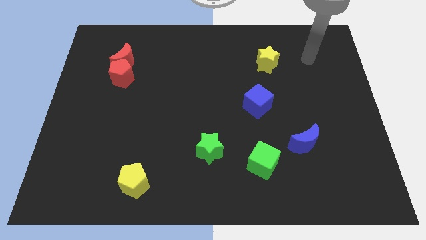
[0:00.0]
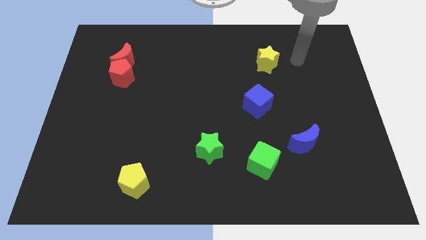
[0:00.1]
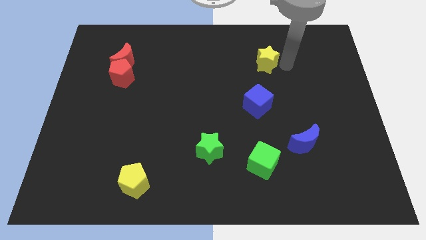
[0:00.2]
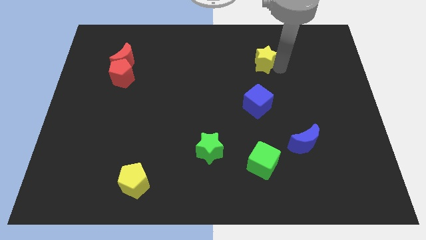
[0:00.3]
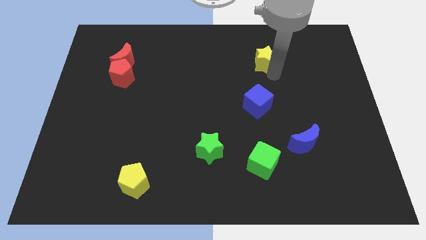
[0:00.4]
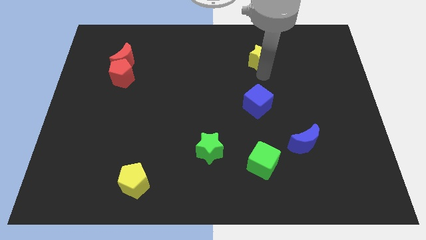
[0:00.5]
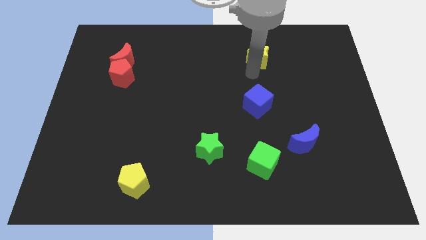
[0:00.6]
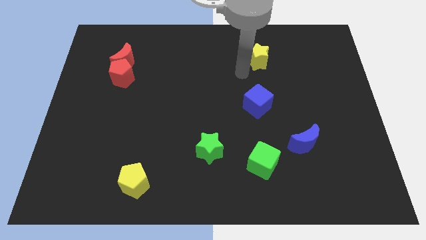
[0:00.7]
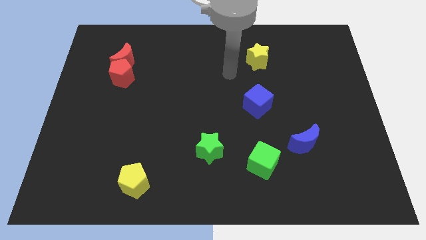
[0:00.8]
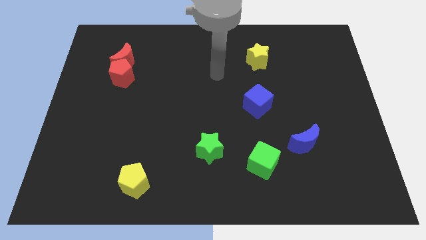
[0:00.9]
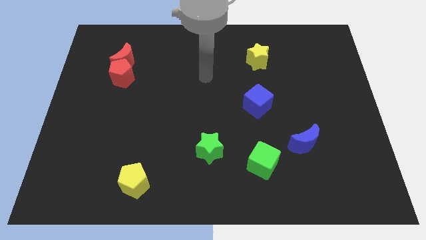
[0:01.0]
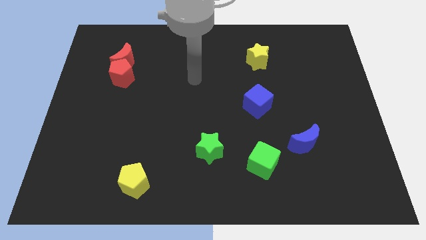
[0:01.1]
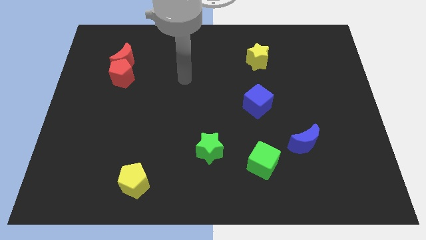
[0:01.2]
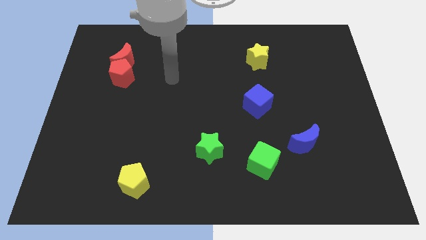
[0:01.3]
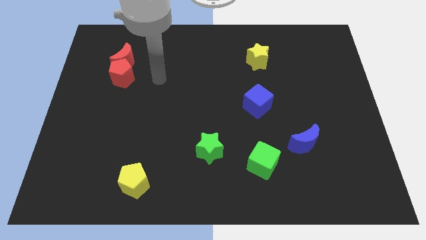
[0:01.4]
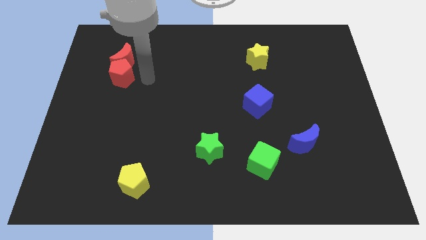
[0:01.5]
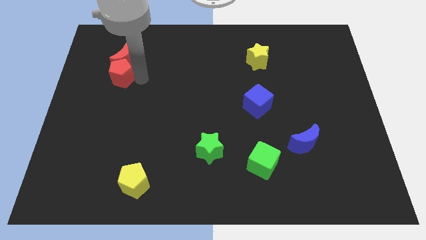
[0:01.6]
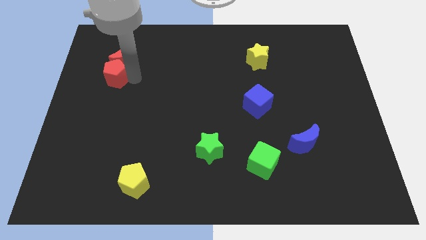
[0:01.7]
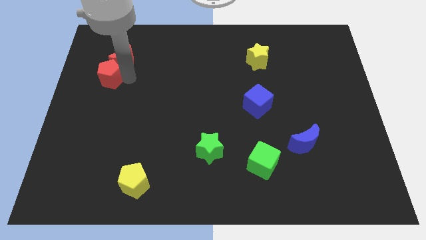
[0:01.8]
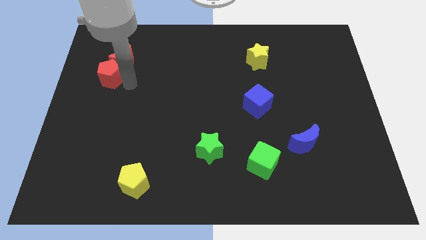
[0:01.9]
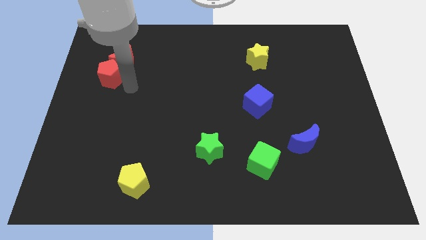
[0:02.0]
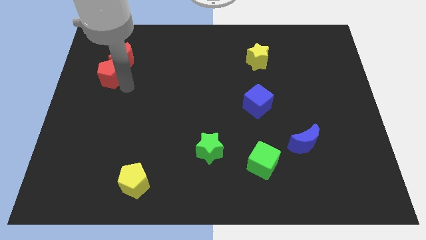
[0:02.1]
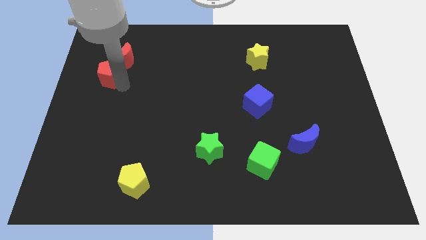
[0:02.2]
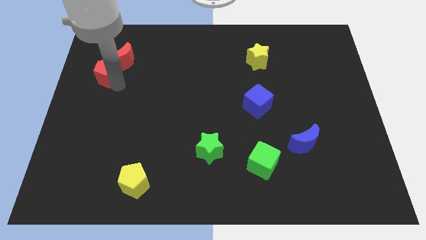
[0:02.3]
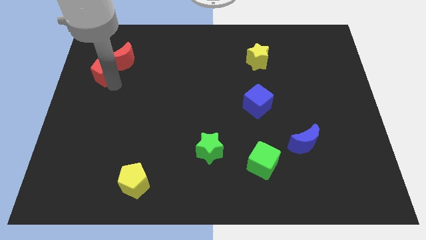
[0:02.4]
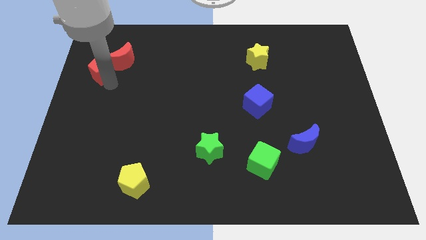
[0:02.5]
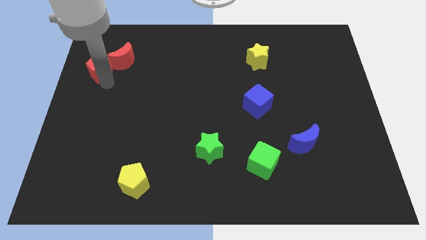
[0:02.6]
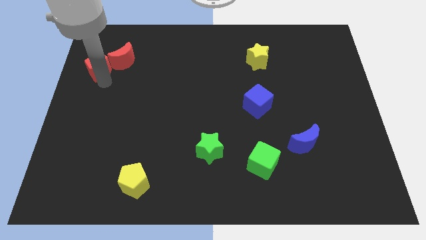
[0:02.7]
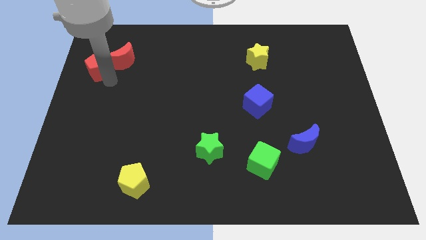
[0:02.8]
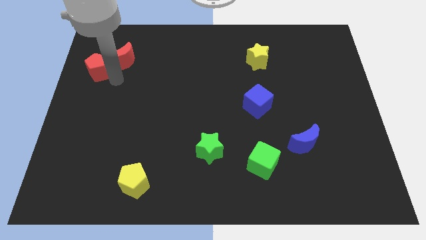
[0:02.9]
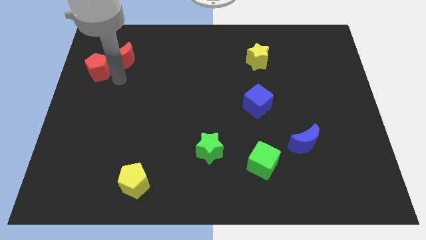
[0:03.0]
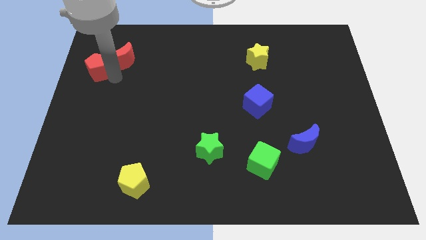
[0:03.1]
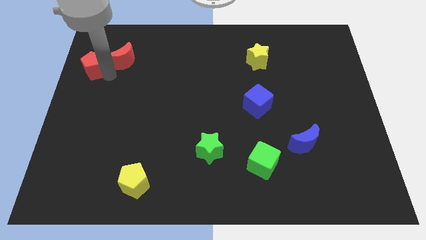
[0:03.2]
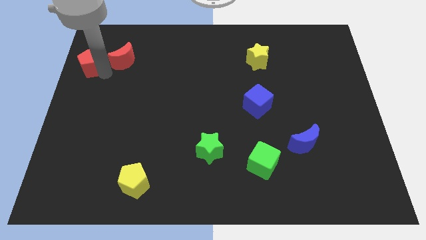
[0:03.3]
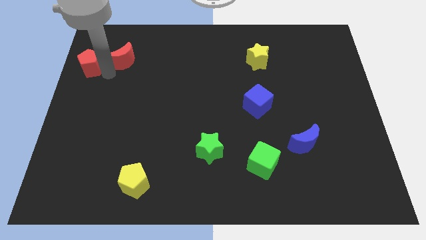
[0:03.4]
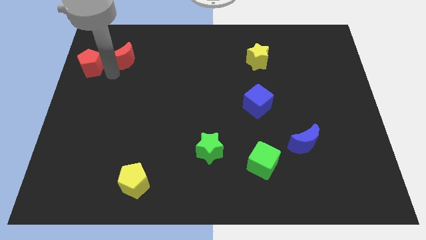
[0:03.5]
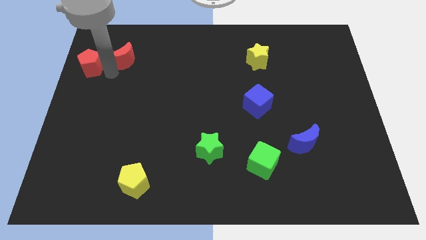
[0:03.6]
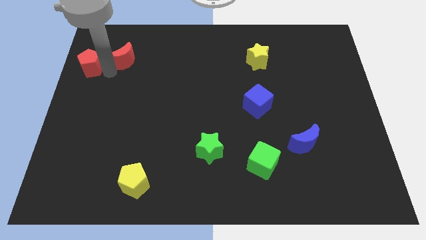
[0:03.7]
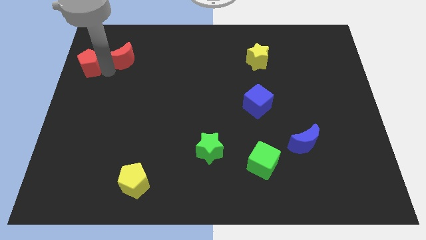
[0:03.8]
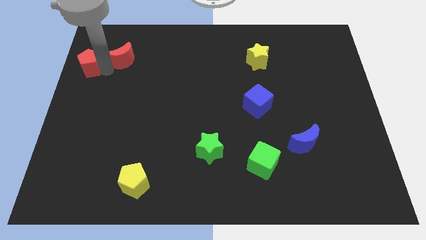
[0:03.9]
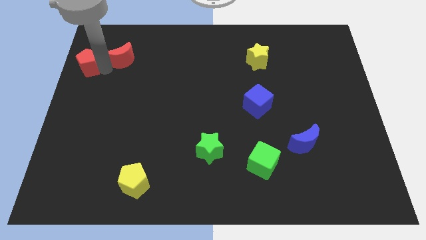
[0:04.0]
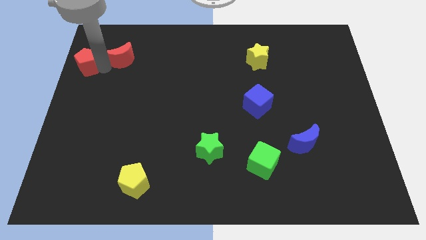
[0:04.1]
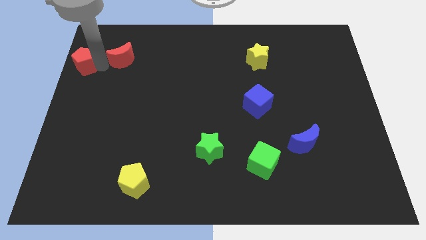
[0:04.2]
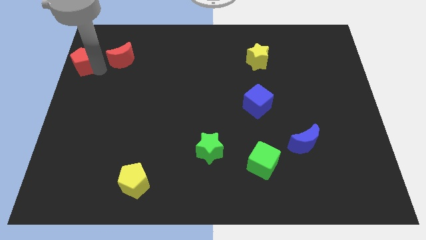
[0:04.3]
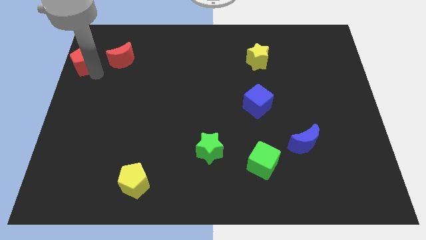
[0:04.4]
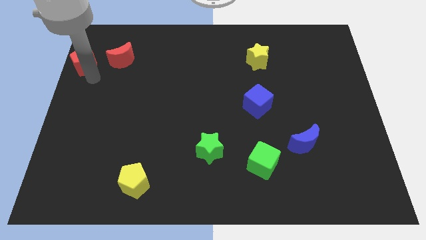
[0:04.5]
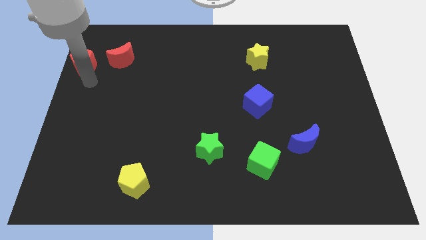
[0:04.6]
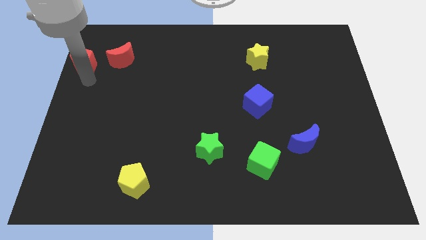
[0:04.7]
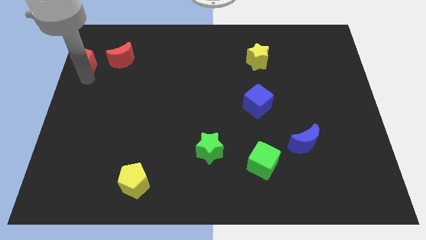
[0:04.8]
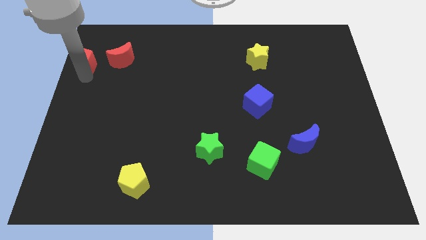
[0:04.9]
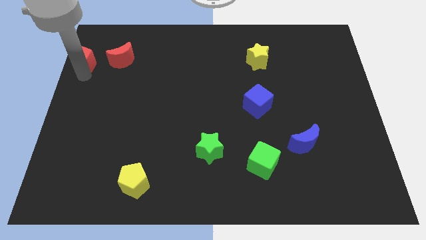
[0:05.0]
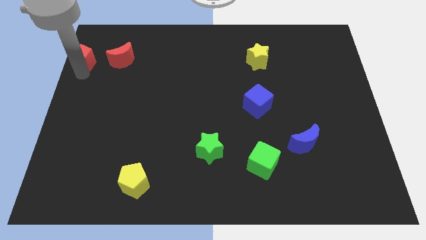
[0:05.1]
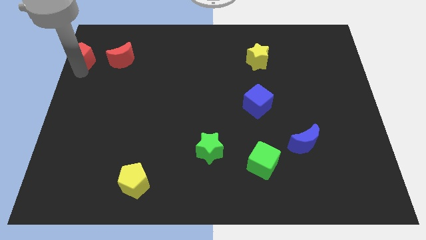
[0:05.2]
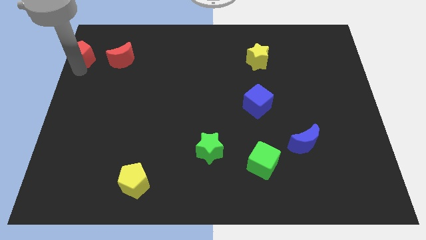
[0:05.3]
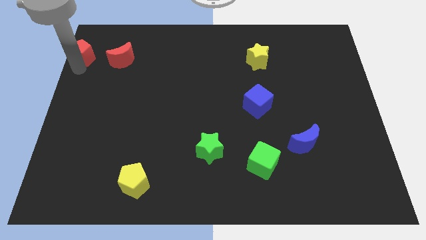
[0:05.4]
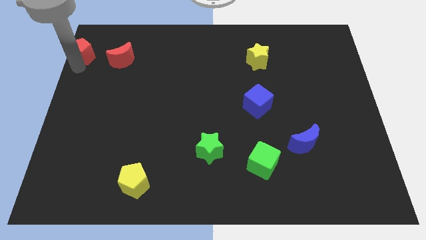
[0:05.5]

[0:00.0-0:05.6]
put the red pentagon to the top left of the board

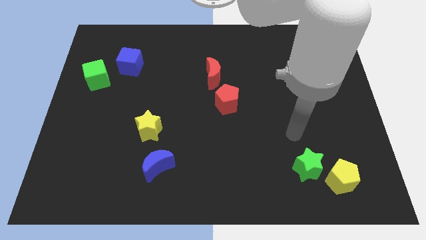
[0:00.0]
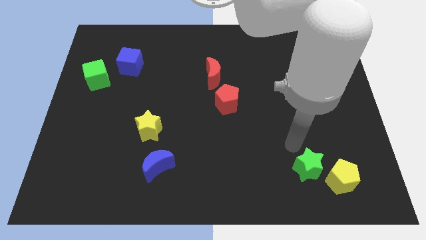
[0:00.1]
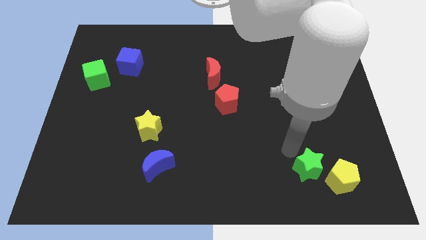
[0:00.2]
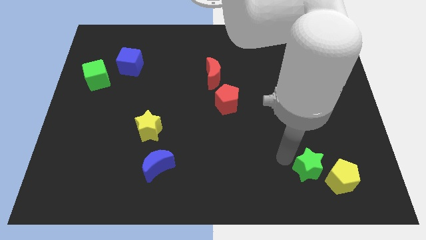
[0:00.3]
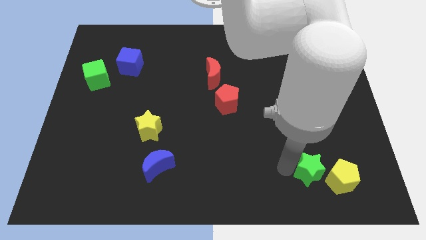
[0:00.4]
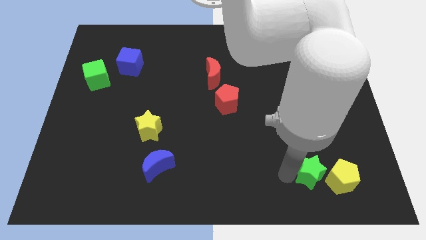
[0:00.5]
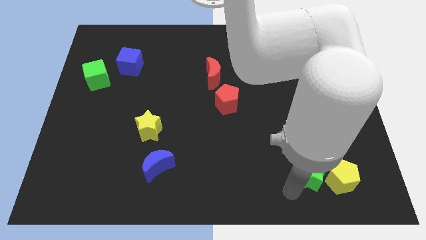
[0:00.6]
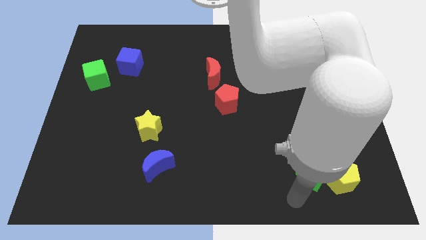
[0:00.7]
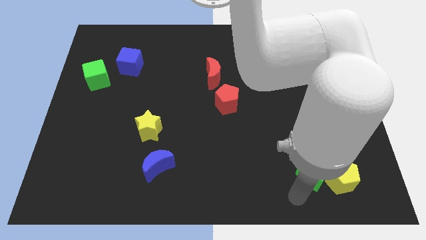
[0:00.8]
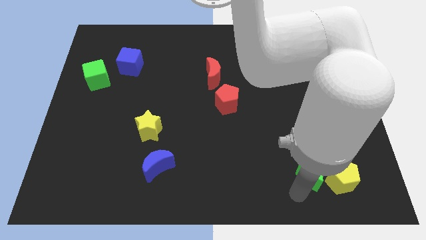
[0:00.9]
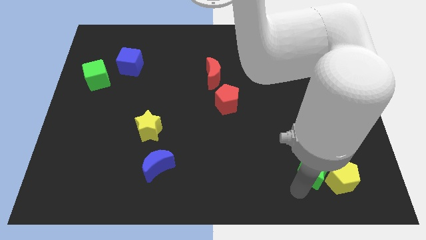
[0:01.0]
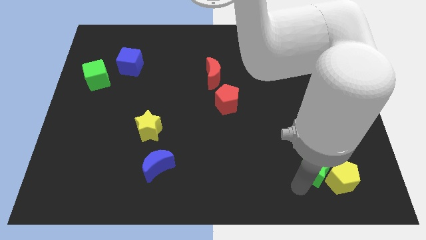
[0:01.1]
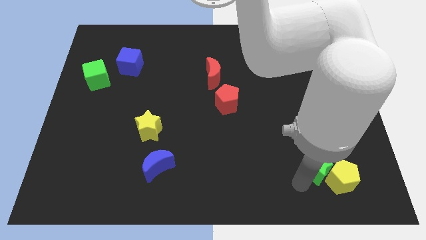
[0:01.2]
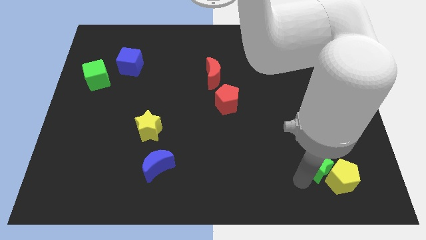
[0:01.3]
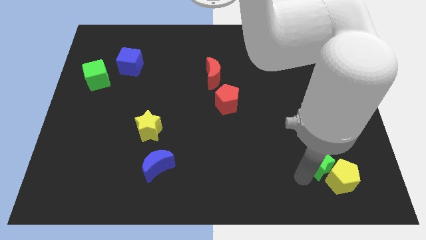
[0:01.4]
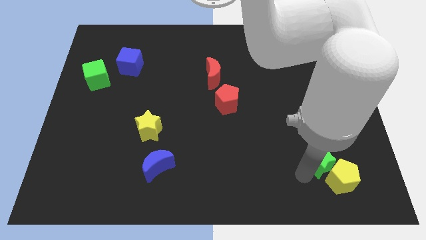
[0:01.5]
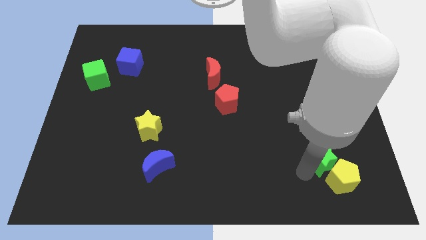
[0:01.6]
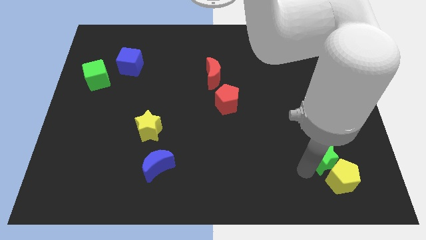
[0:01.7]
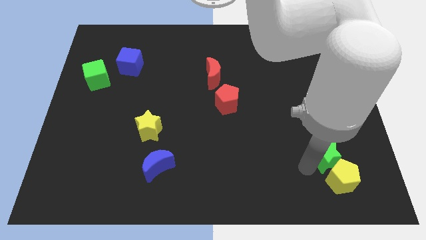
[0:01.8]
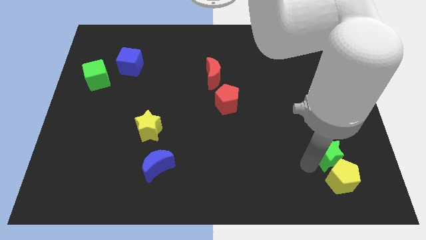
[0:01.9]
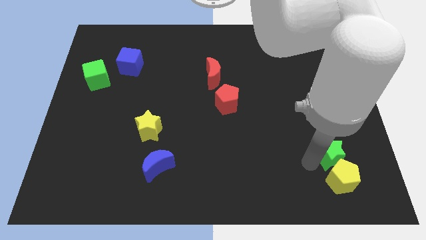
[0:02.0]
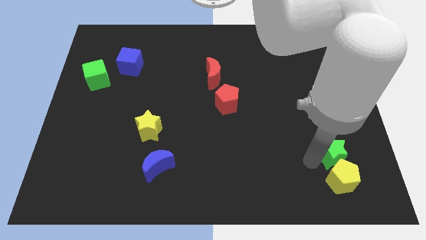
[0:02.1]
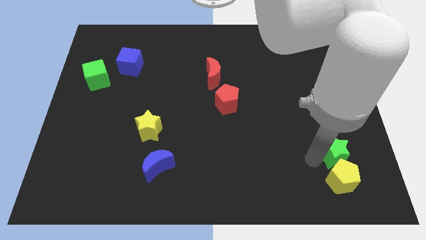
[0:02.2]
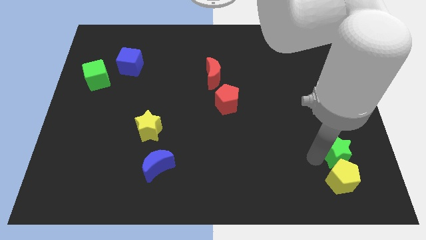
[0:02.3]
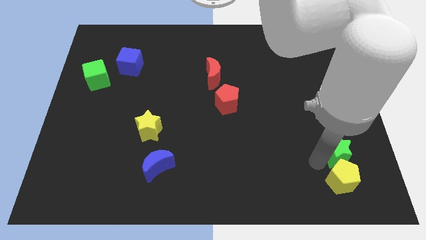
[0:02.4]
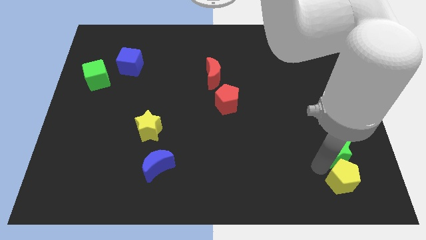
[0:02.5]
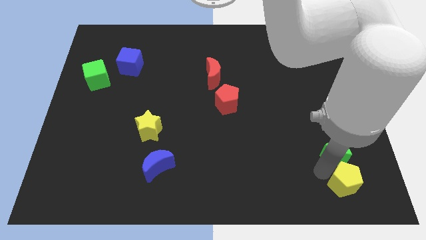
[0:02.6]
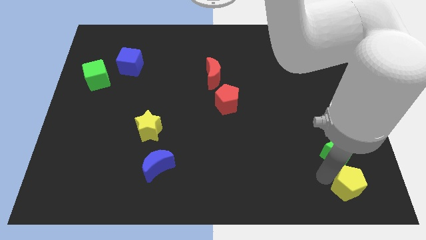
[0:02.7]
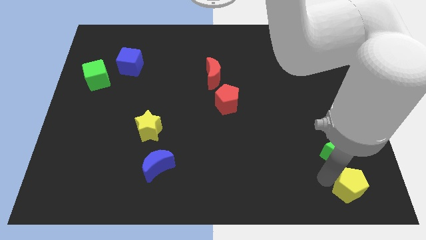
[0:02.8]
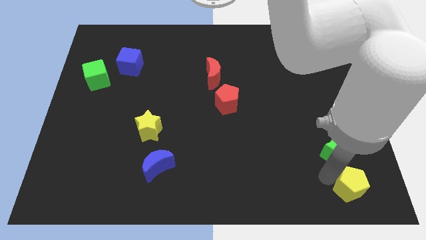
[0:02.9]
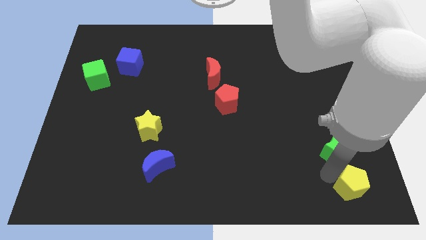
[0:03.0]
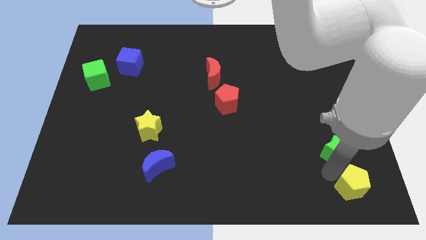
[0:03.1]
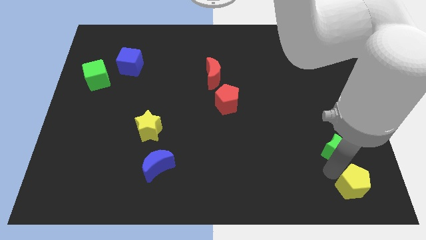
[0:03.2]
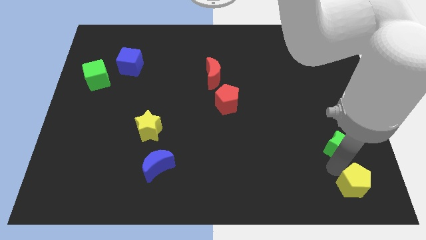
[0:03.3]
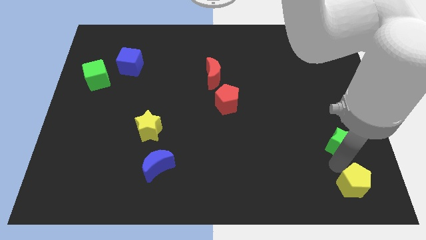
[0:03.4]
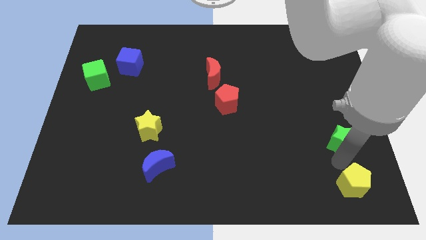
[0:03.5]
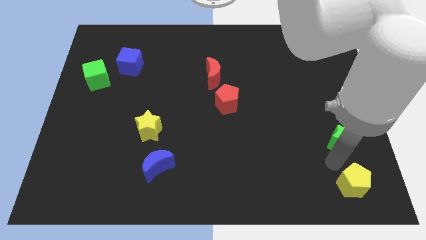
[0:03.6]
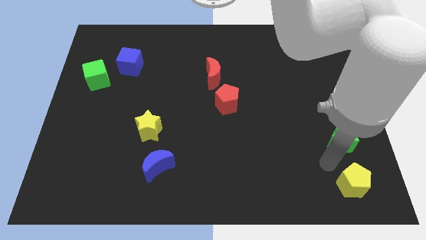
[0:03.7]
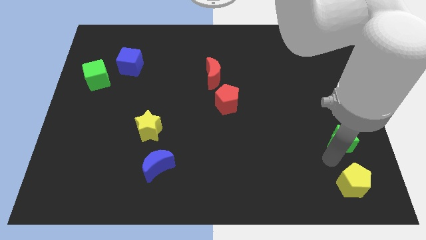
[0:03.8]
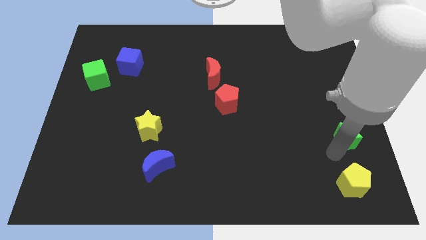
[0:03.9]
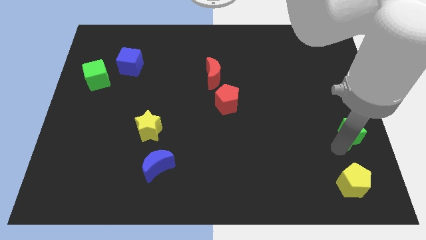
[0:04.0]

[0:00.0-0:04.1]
push the green star to the center right
